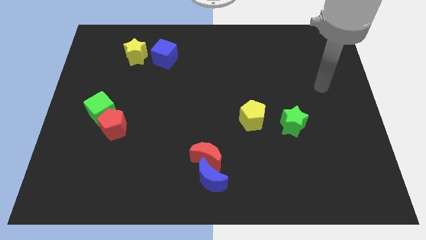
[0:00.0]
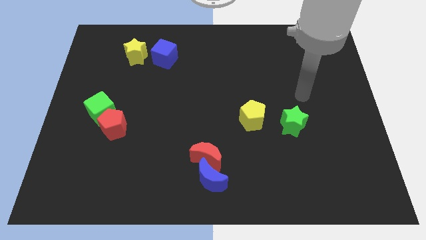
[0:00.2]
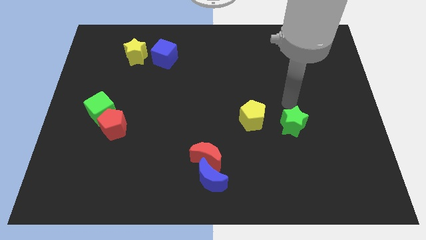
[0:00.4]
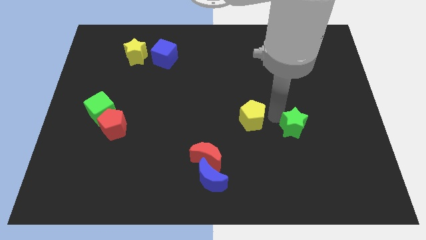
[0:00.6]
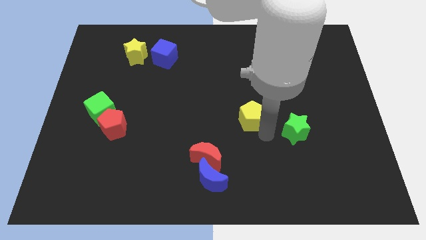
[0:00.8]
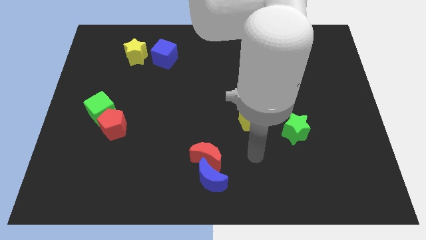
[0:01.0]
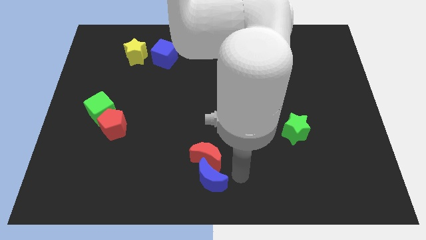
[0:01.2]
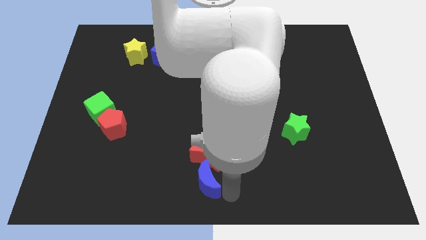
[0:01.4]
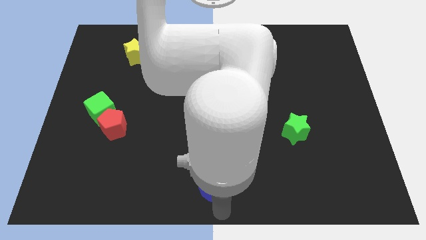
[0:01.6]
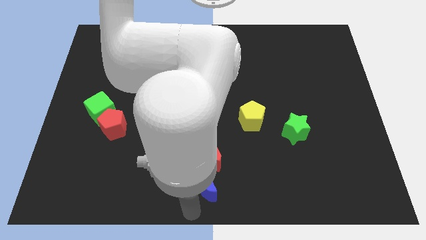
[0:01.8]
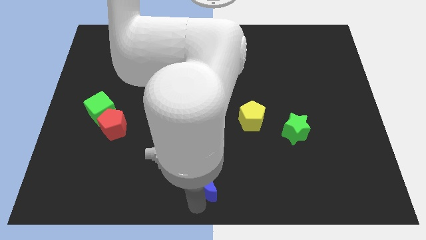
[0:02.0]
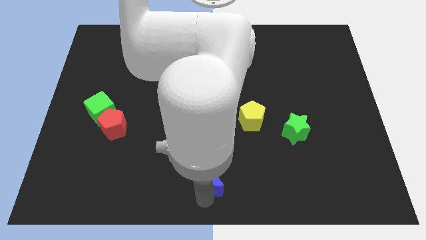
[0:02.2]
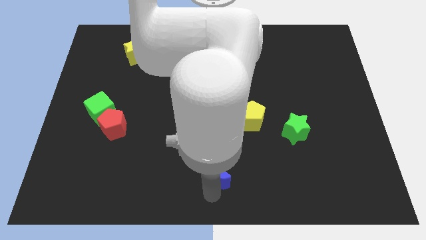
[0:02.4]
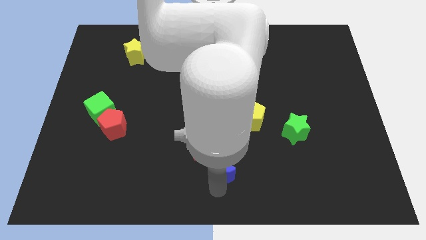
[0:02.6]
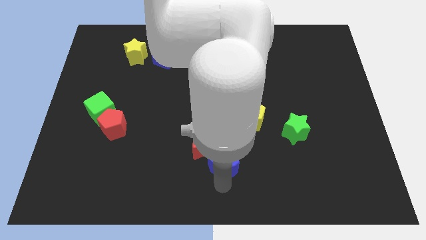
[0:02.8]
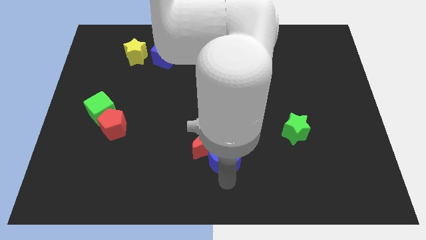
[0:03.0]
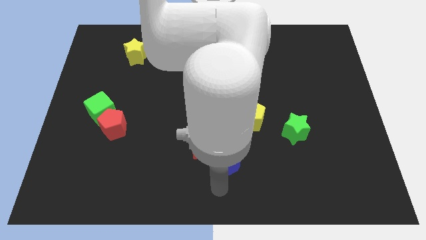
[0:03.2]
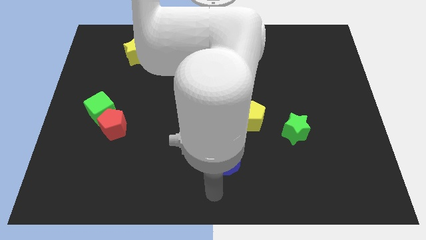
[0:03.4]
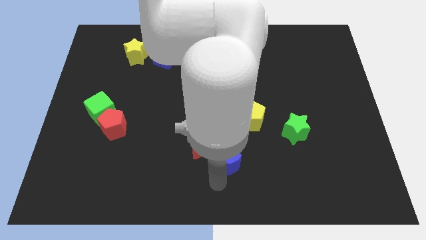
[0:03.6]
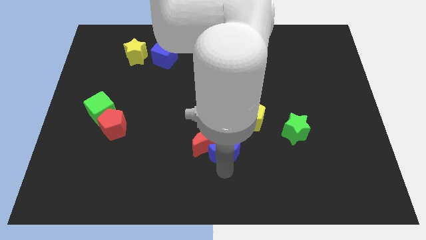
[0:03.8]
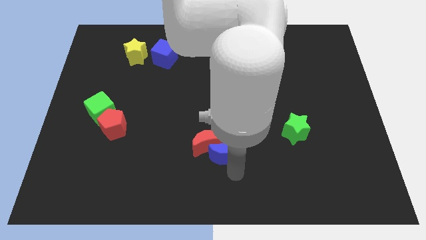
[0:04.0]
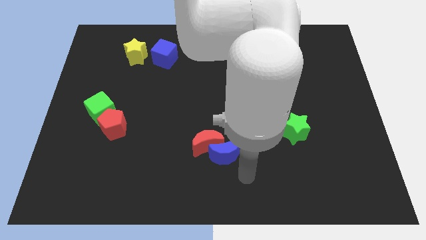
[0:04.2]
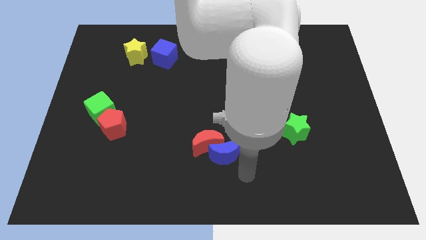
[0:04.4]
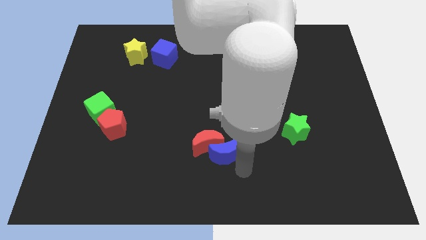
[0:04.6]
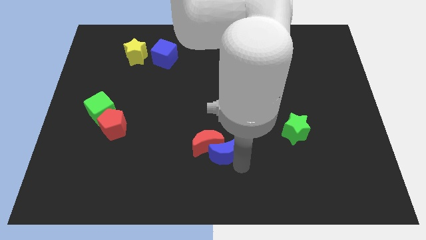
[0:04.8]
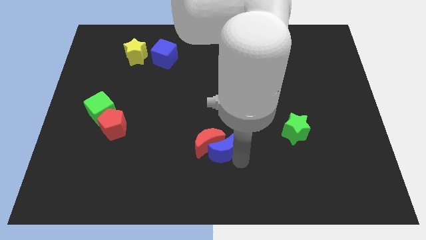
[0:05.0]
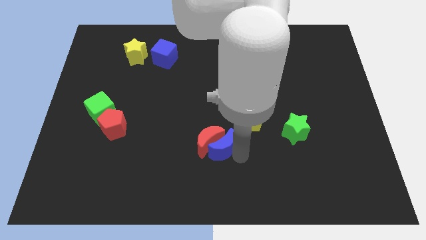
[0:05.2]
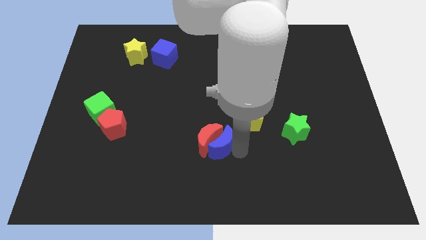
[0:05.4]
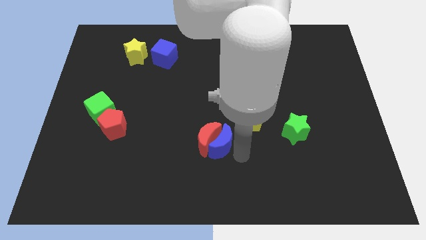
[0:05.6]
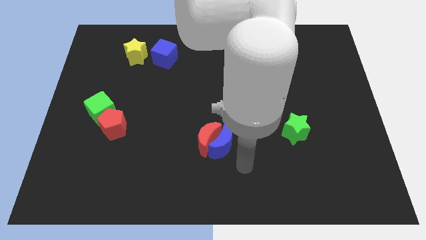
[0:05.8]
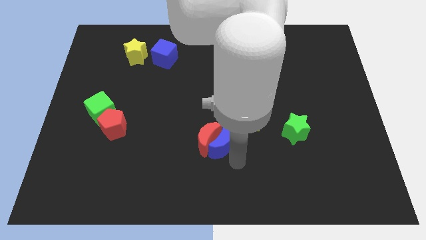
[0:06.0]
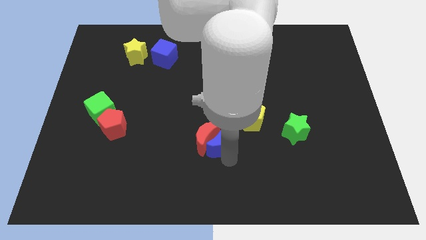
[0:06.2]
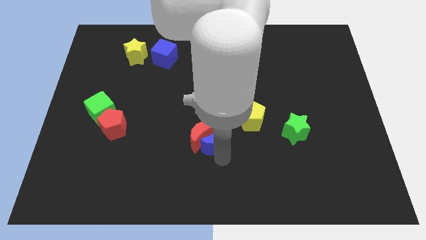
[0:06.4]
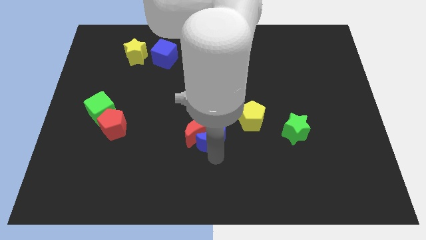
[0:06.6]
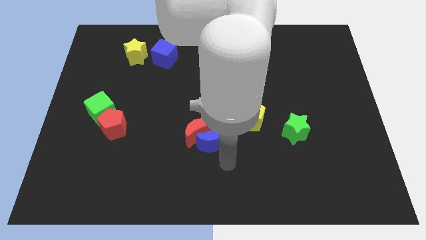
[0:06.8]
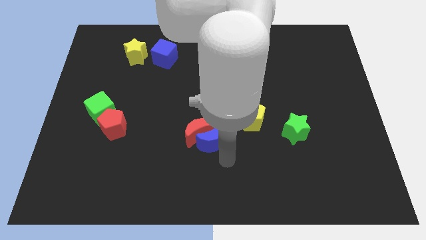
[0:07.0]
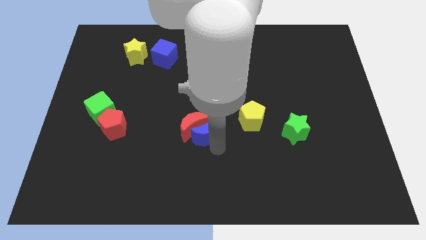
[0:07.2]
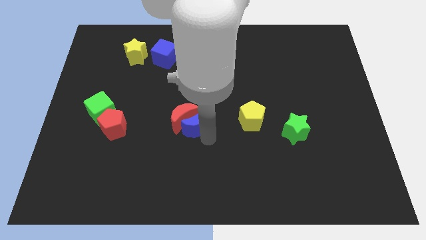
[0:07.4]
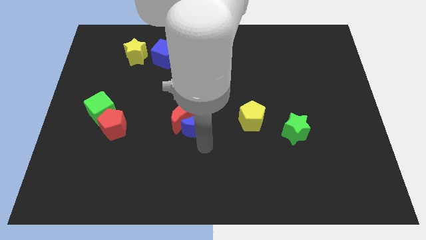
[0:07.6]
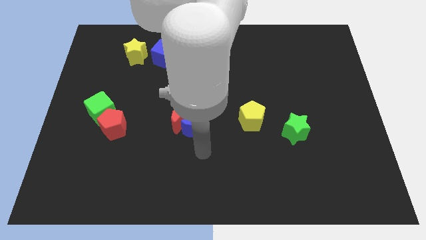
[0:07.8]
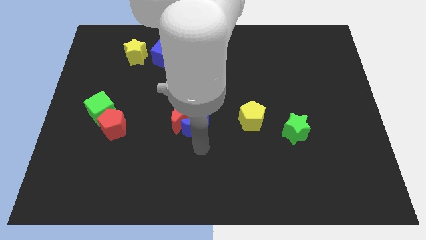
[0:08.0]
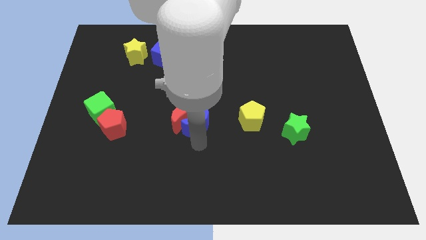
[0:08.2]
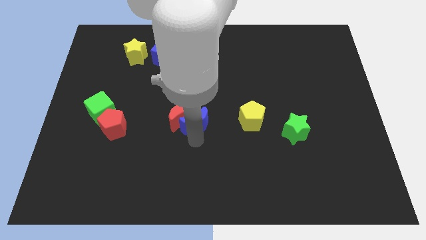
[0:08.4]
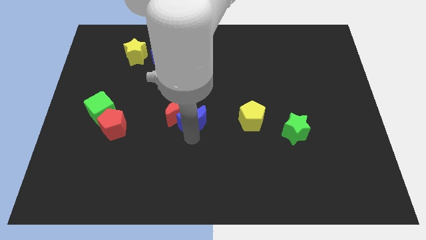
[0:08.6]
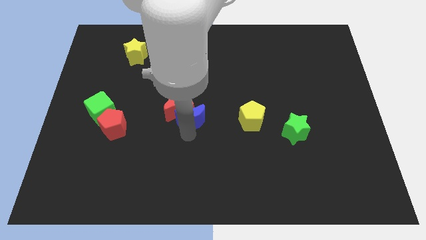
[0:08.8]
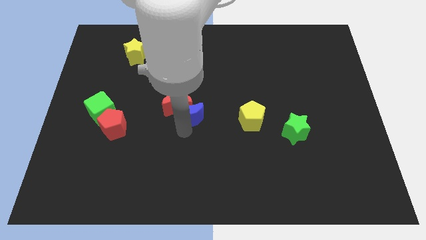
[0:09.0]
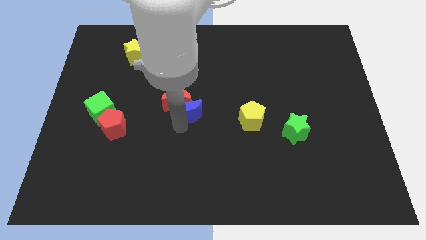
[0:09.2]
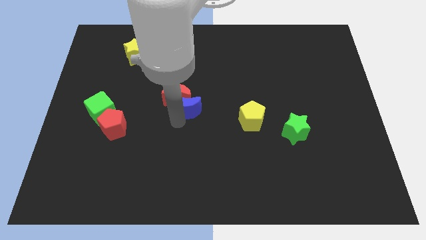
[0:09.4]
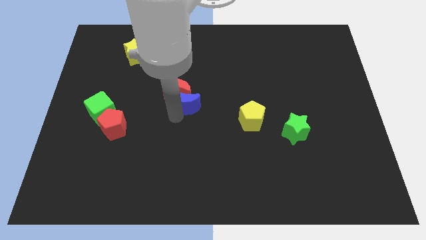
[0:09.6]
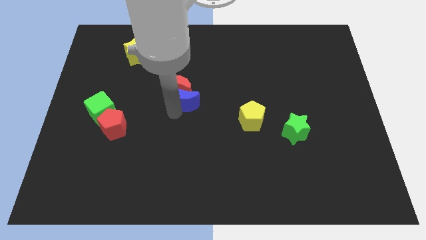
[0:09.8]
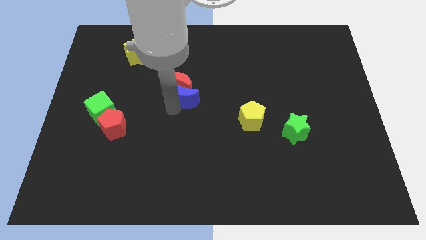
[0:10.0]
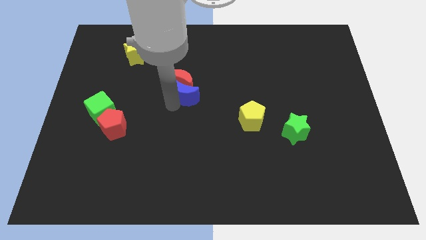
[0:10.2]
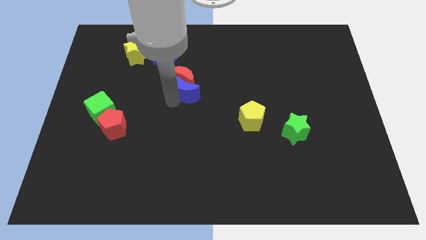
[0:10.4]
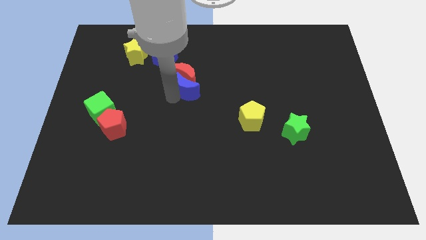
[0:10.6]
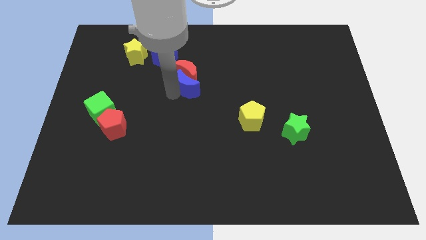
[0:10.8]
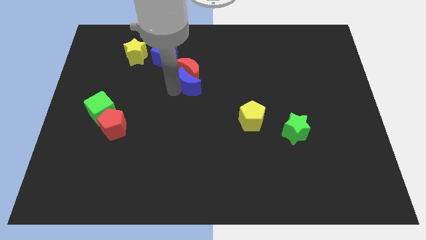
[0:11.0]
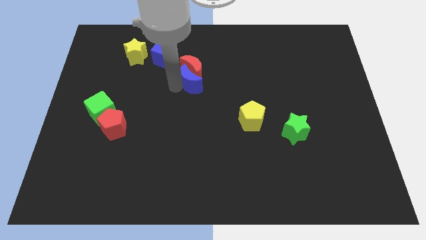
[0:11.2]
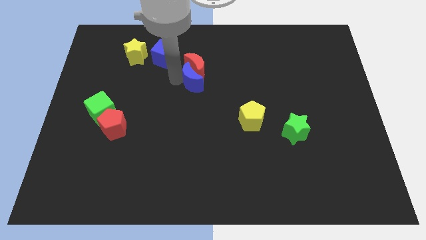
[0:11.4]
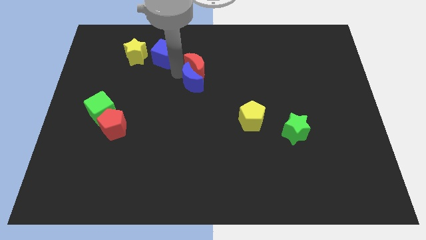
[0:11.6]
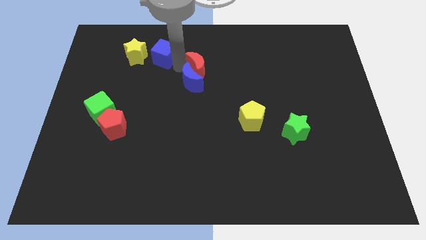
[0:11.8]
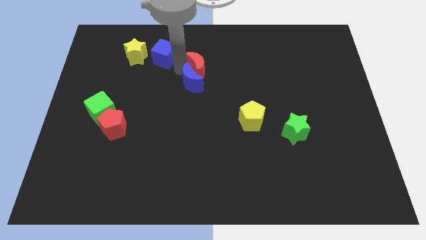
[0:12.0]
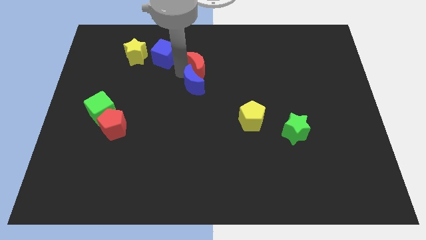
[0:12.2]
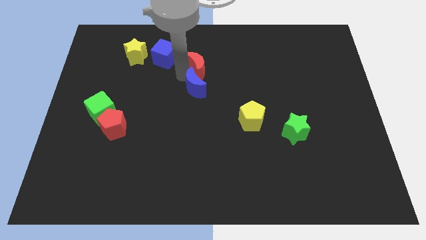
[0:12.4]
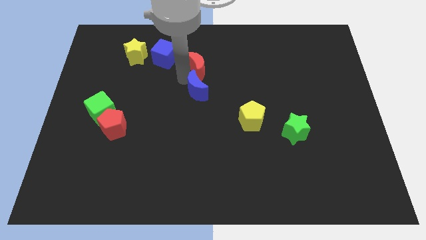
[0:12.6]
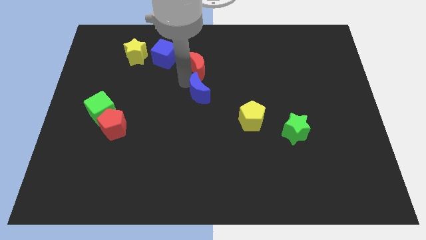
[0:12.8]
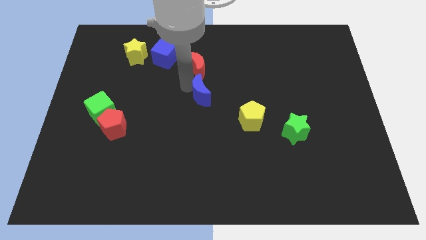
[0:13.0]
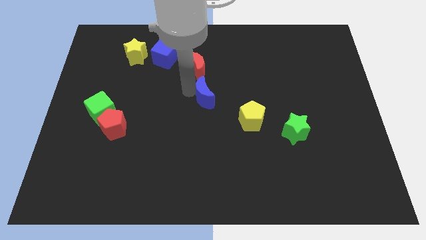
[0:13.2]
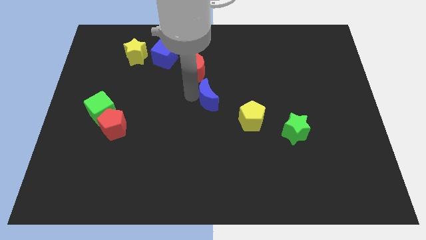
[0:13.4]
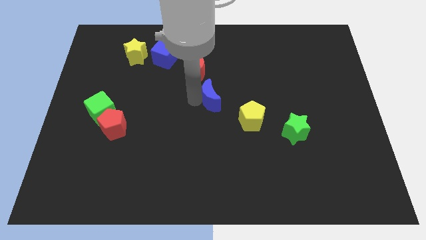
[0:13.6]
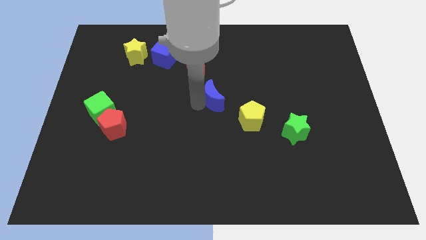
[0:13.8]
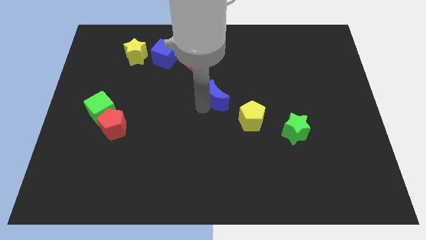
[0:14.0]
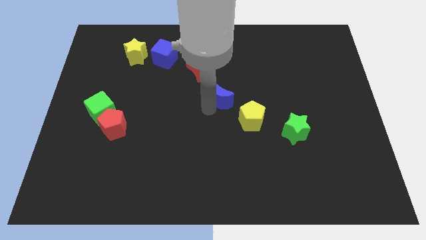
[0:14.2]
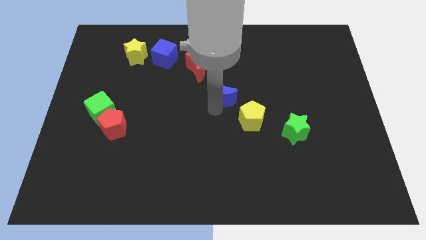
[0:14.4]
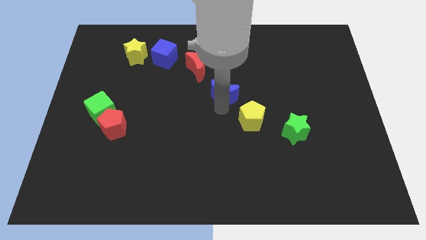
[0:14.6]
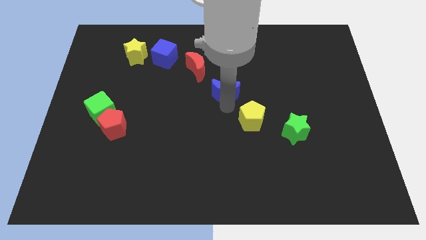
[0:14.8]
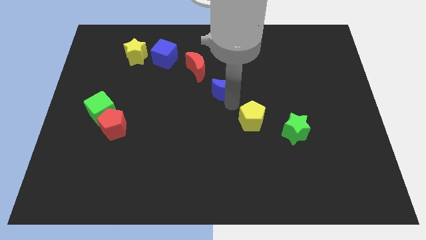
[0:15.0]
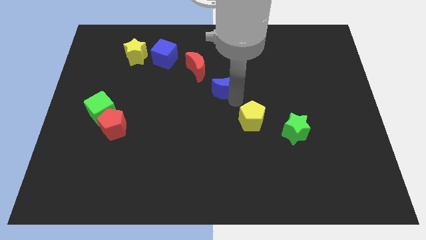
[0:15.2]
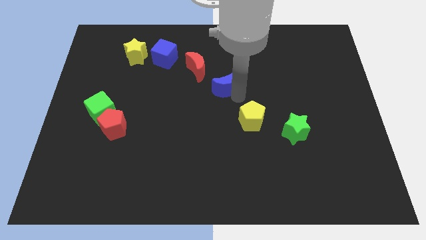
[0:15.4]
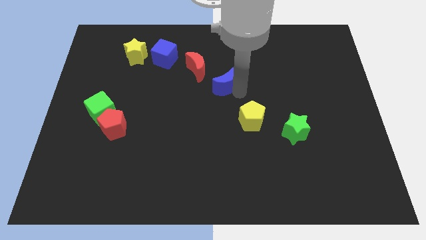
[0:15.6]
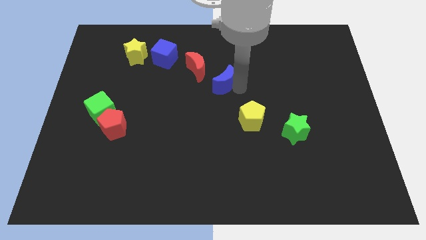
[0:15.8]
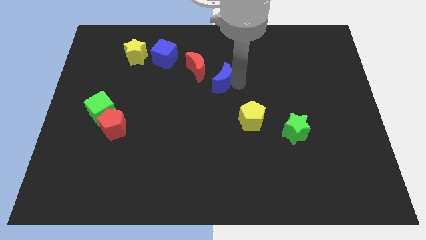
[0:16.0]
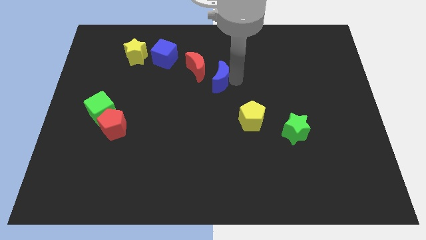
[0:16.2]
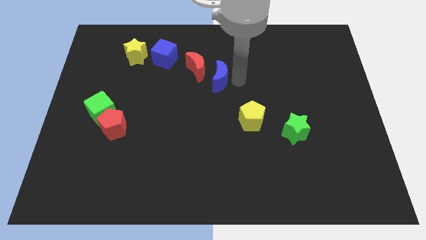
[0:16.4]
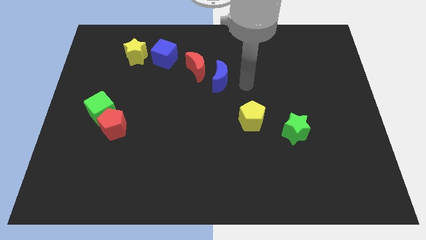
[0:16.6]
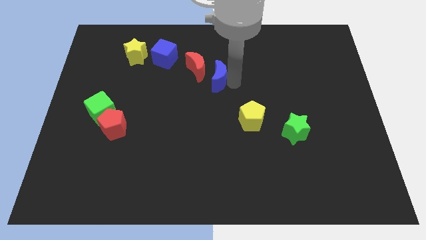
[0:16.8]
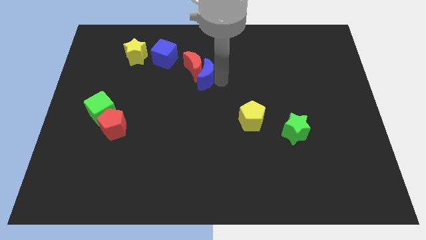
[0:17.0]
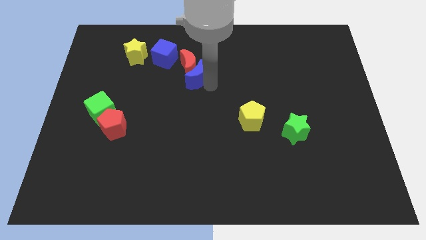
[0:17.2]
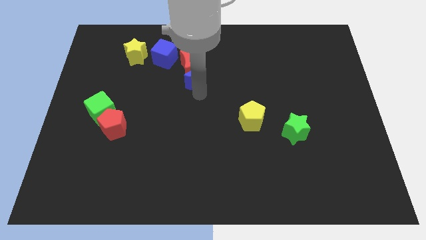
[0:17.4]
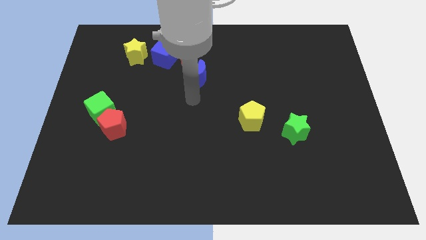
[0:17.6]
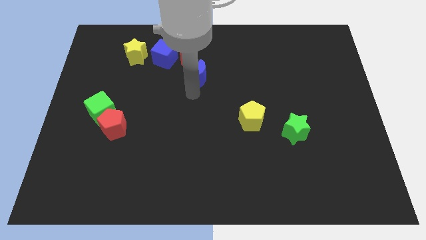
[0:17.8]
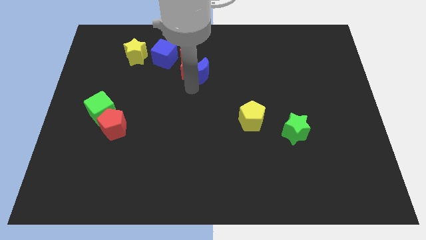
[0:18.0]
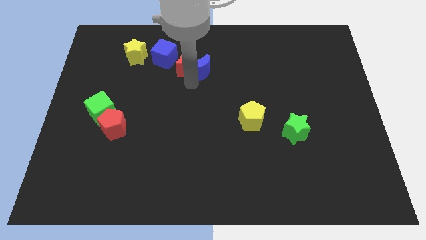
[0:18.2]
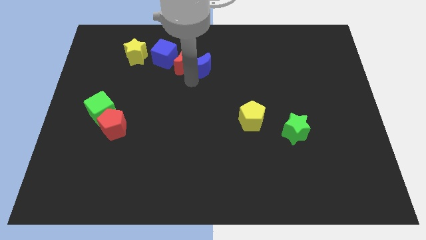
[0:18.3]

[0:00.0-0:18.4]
move the blue moon to the right of the blue cube
